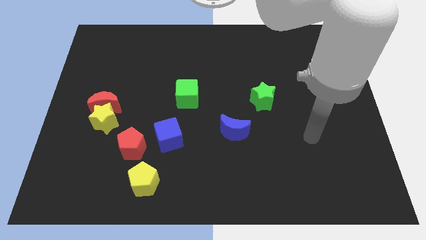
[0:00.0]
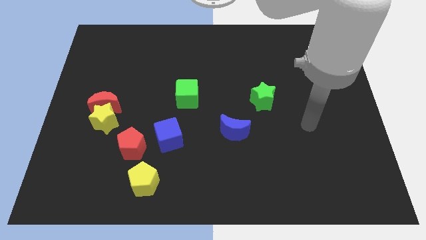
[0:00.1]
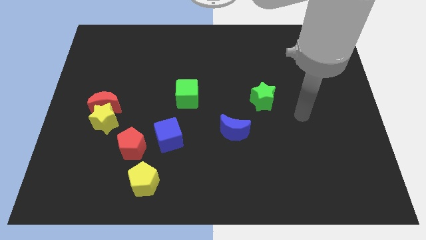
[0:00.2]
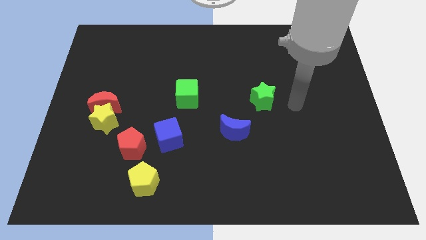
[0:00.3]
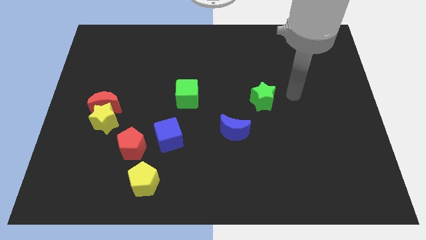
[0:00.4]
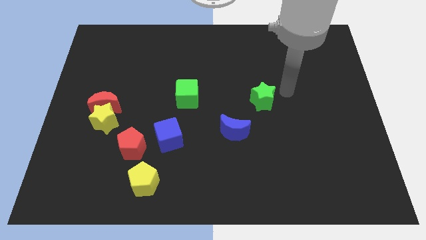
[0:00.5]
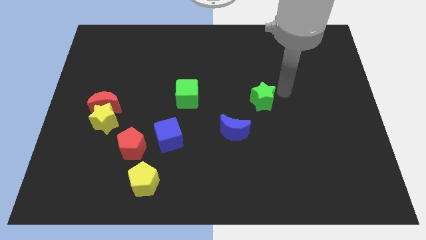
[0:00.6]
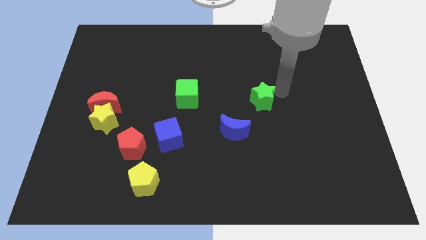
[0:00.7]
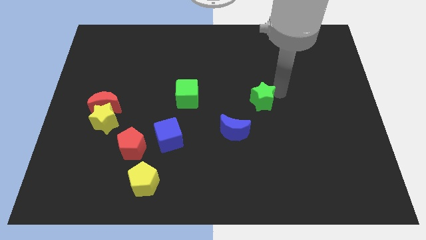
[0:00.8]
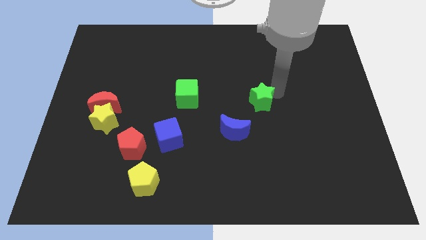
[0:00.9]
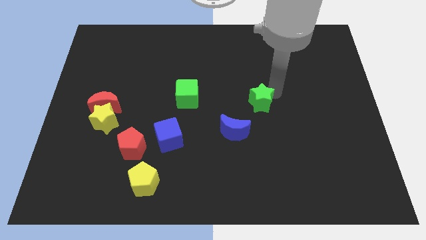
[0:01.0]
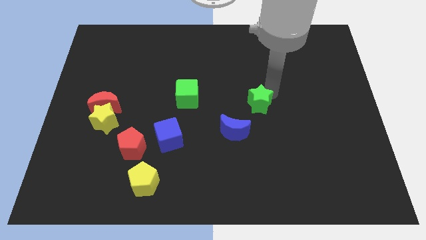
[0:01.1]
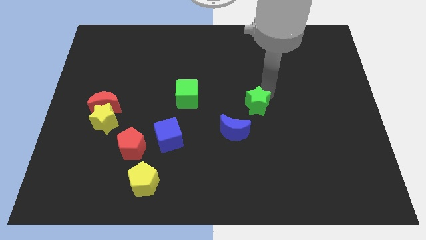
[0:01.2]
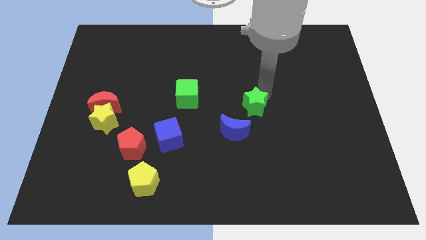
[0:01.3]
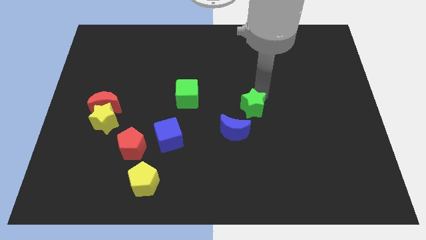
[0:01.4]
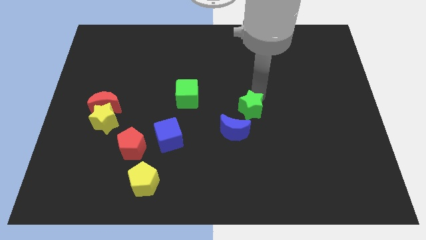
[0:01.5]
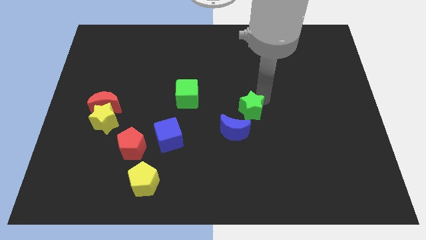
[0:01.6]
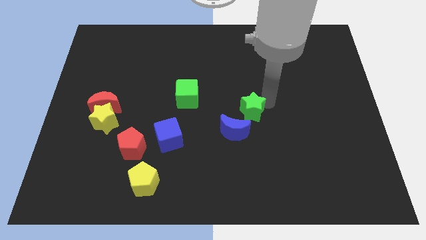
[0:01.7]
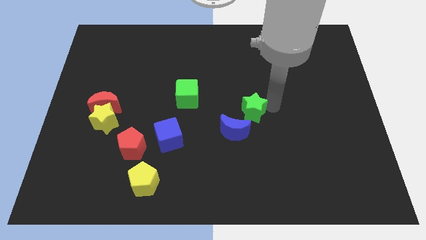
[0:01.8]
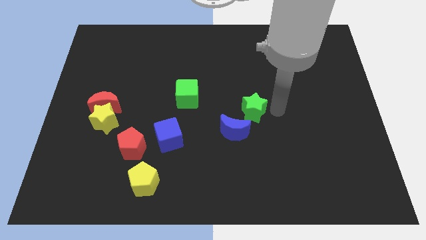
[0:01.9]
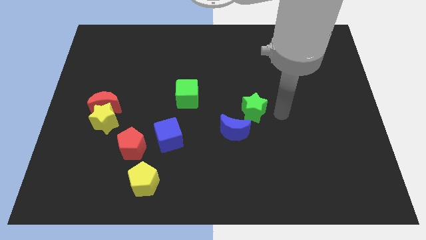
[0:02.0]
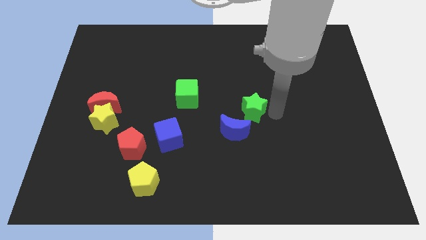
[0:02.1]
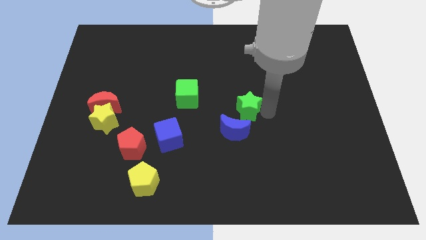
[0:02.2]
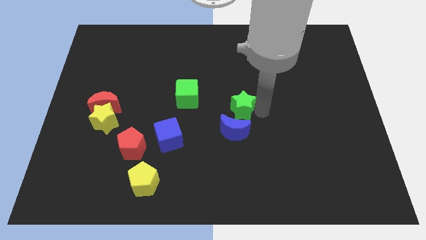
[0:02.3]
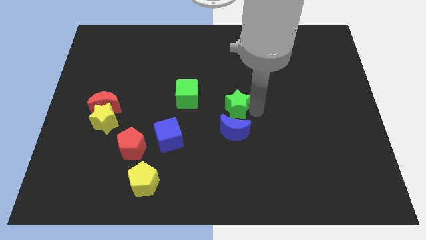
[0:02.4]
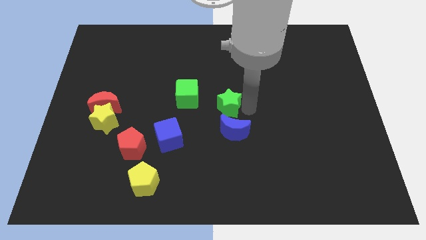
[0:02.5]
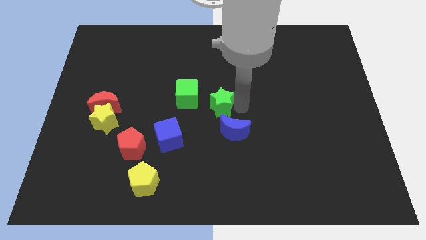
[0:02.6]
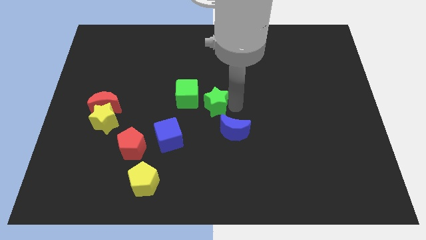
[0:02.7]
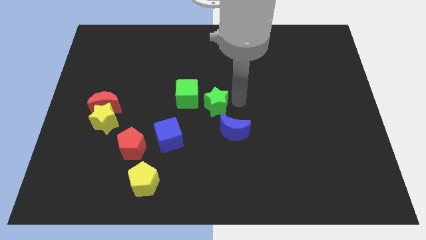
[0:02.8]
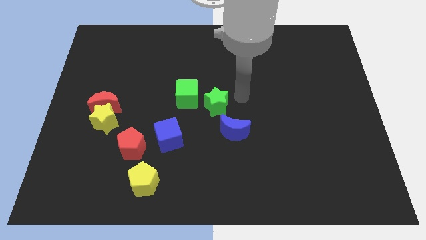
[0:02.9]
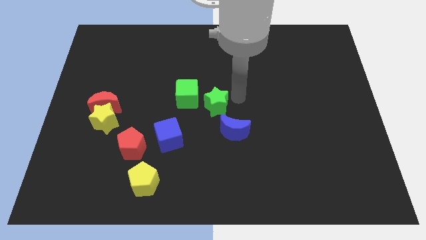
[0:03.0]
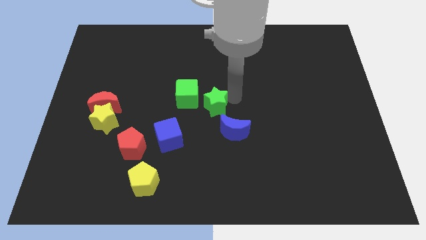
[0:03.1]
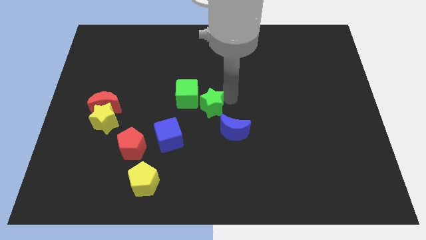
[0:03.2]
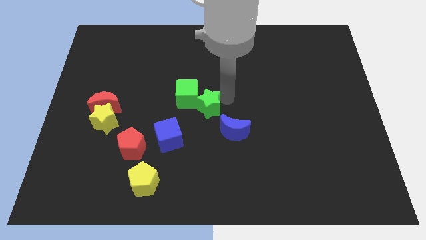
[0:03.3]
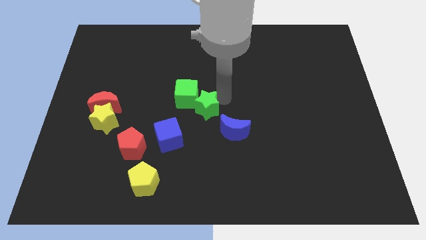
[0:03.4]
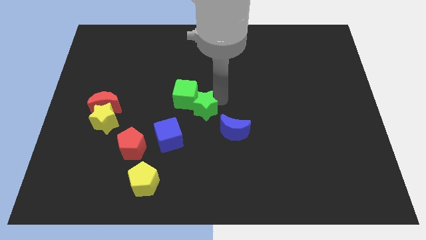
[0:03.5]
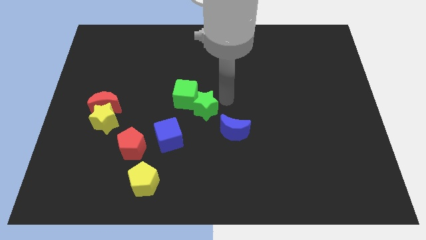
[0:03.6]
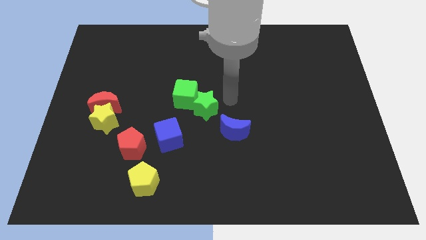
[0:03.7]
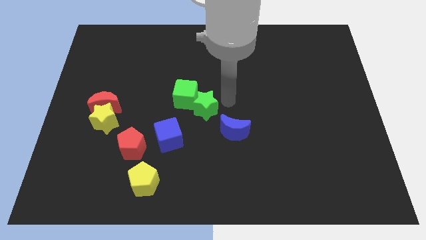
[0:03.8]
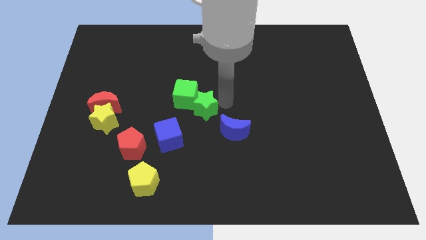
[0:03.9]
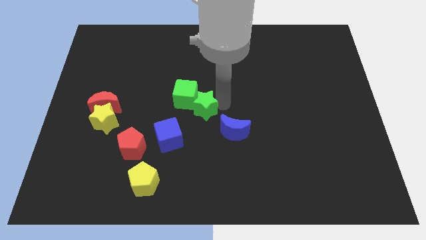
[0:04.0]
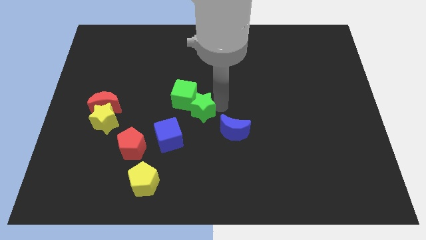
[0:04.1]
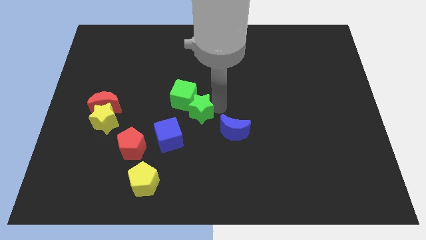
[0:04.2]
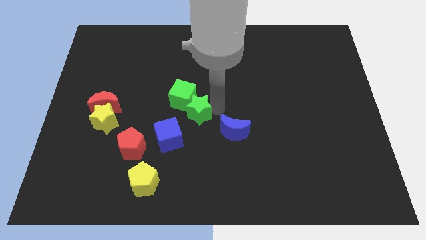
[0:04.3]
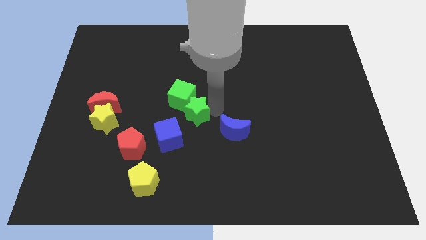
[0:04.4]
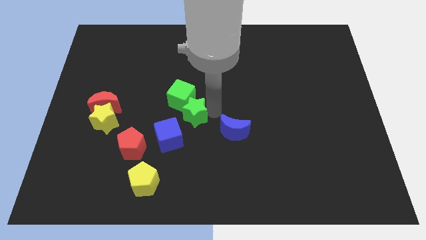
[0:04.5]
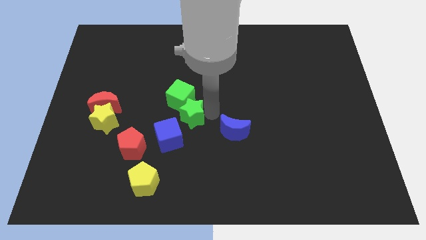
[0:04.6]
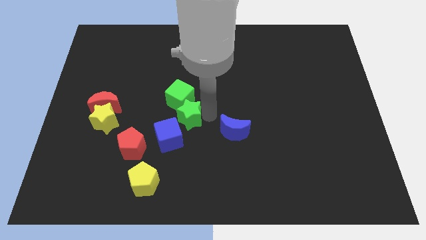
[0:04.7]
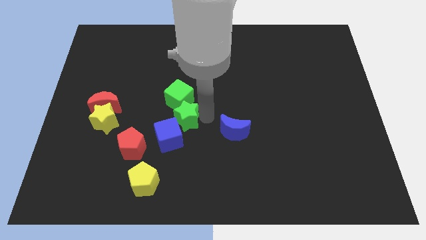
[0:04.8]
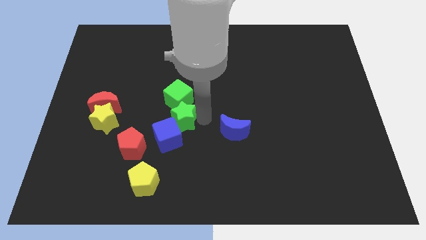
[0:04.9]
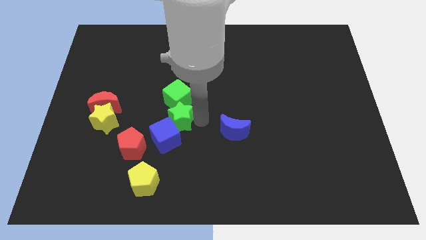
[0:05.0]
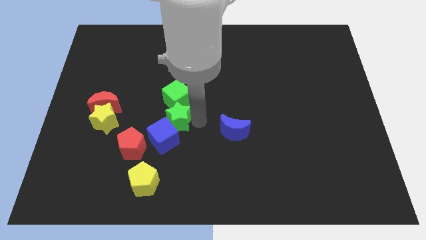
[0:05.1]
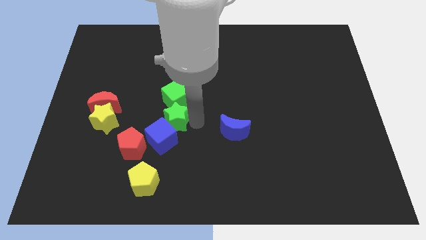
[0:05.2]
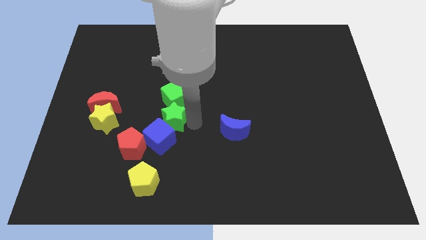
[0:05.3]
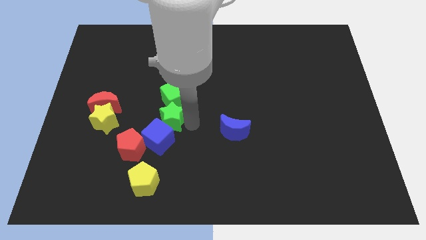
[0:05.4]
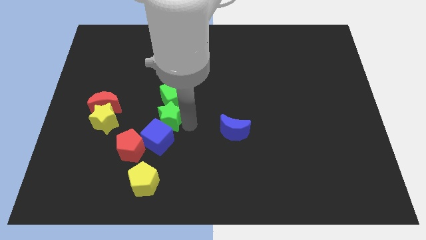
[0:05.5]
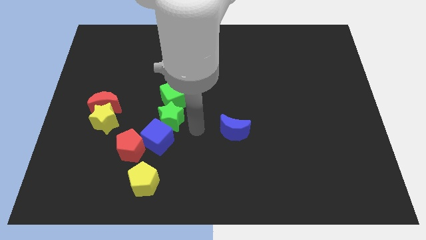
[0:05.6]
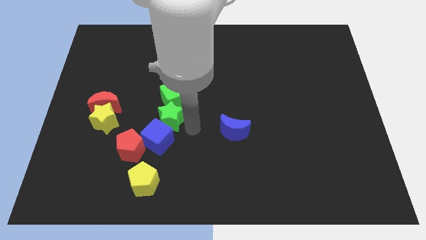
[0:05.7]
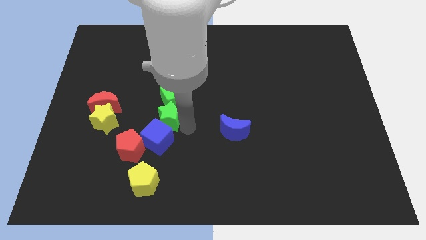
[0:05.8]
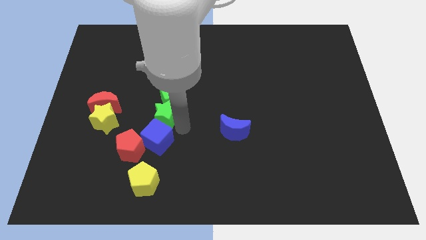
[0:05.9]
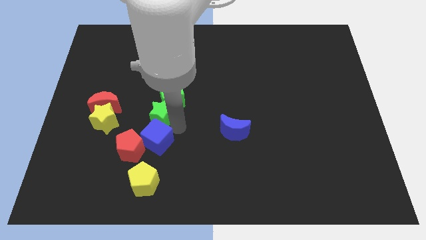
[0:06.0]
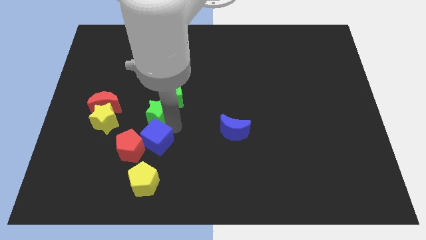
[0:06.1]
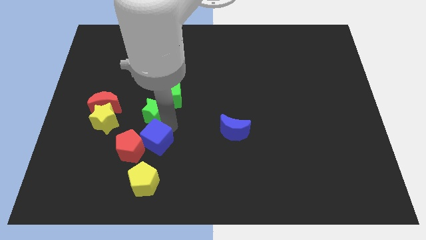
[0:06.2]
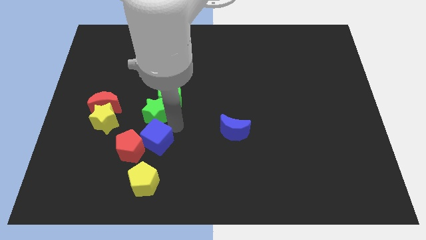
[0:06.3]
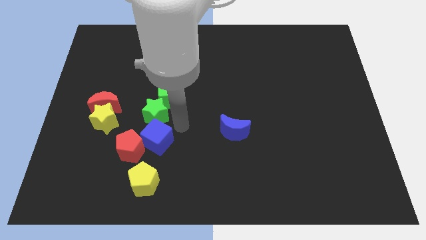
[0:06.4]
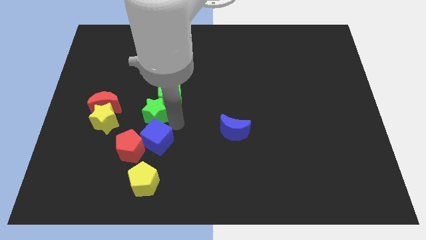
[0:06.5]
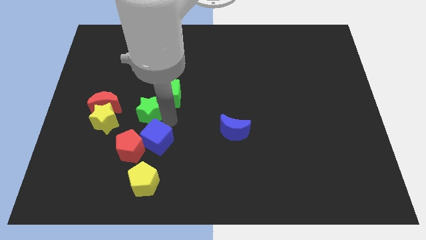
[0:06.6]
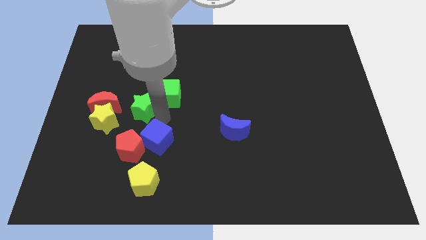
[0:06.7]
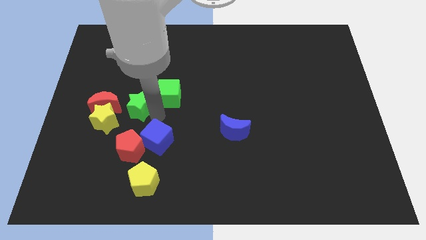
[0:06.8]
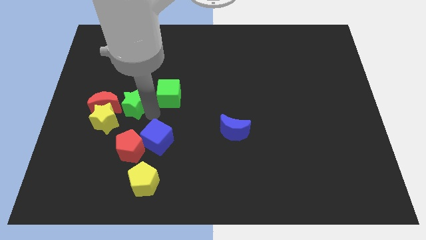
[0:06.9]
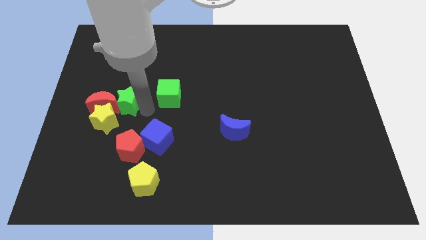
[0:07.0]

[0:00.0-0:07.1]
push the green star close to the red moon
